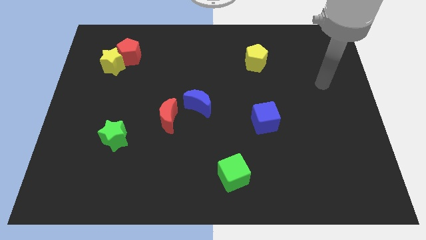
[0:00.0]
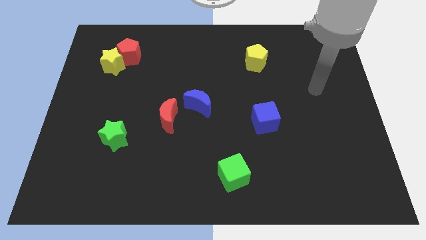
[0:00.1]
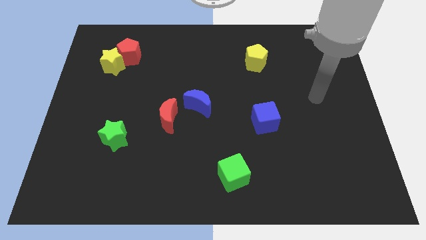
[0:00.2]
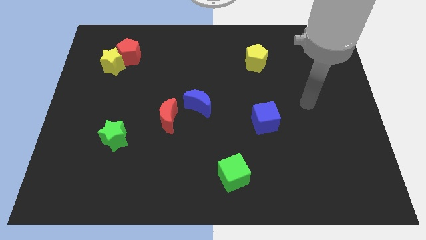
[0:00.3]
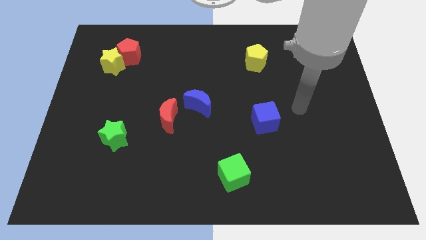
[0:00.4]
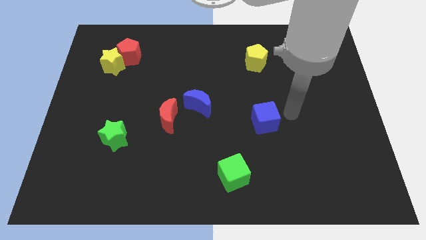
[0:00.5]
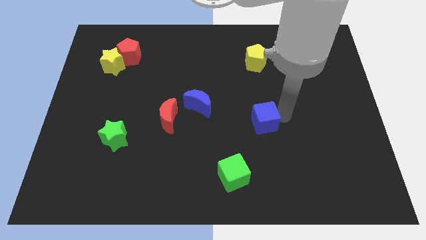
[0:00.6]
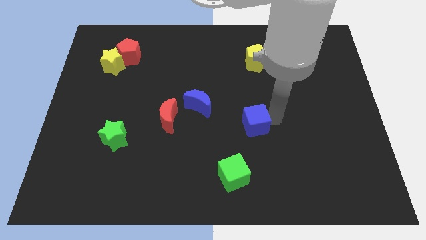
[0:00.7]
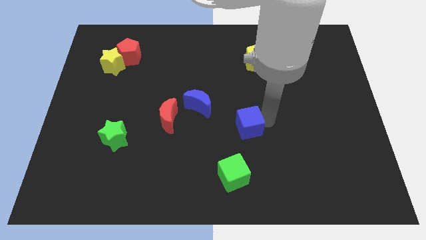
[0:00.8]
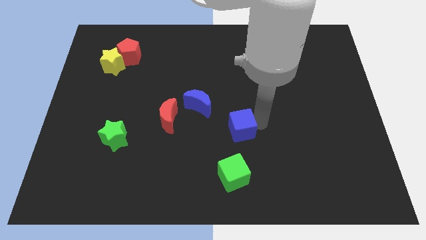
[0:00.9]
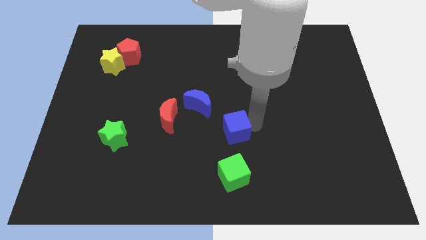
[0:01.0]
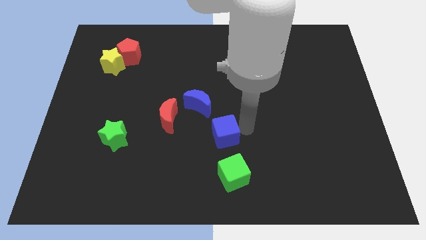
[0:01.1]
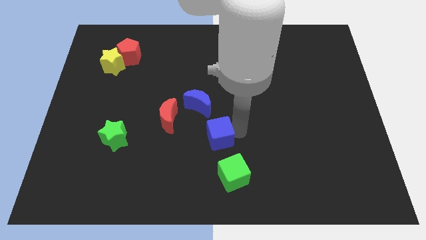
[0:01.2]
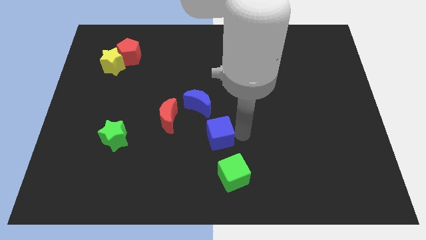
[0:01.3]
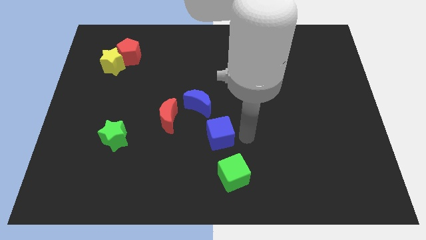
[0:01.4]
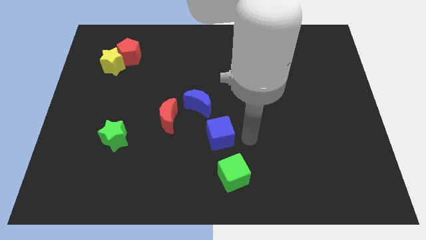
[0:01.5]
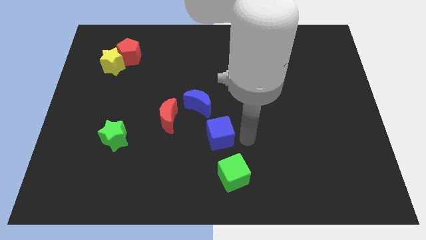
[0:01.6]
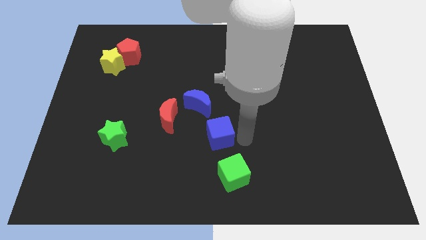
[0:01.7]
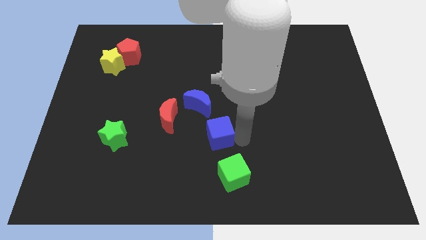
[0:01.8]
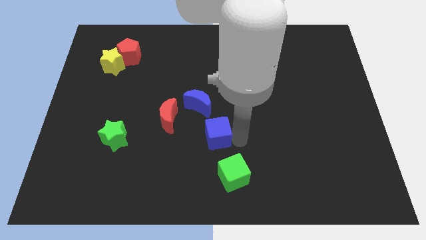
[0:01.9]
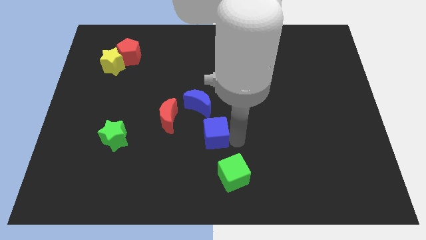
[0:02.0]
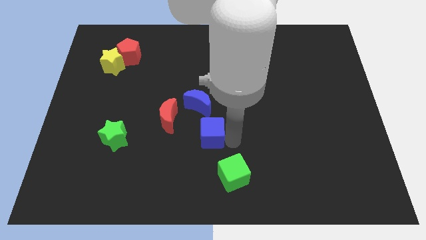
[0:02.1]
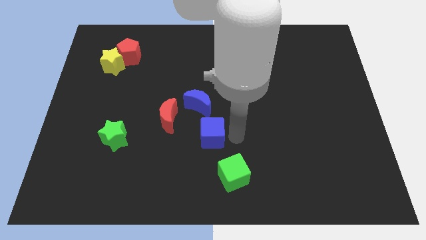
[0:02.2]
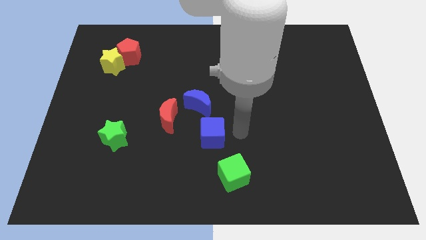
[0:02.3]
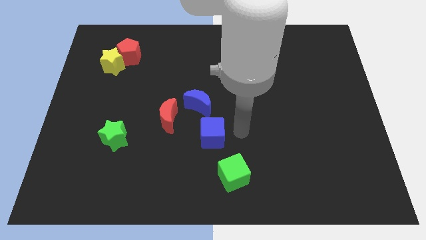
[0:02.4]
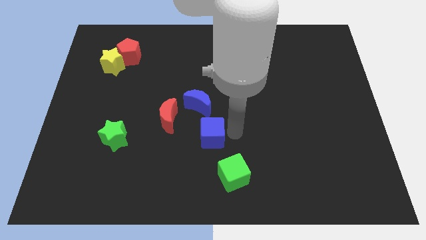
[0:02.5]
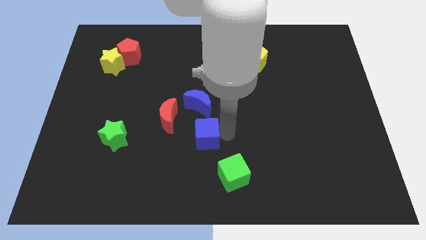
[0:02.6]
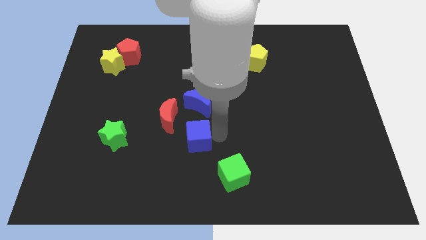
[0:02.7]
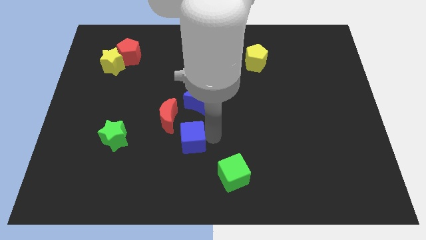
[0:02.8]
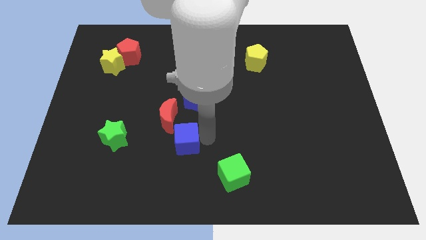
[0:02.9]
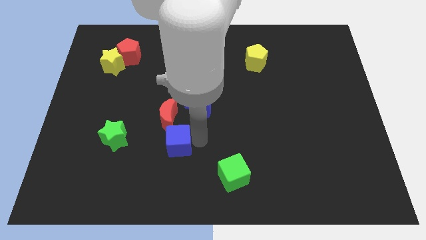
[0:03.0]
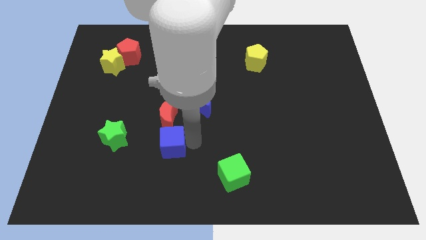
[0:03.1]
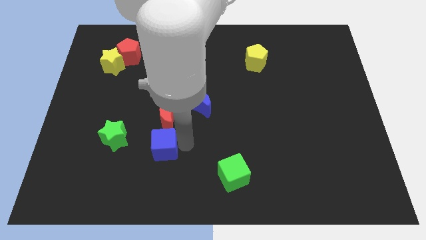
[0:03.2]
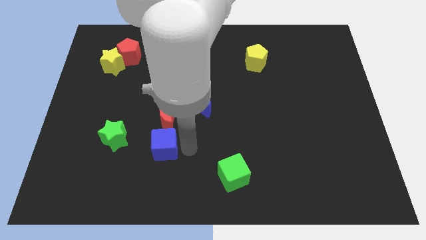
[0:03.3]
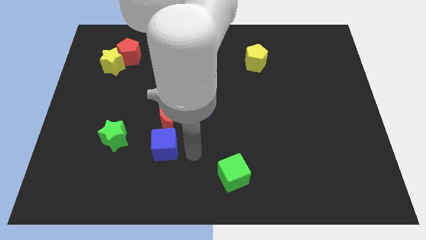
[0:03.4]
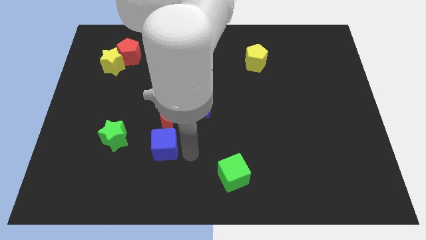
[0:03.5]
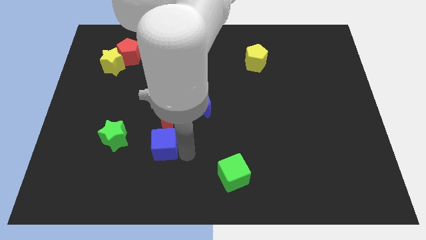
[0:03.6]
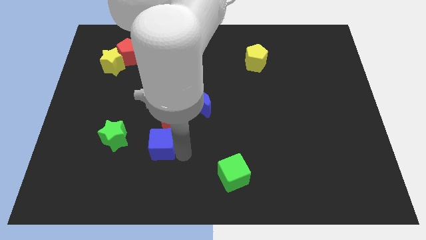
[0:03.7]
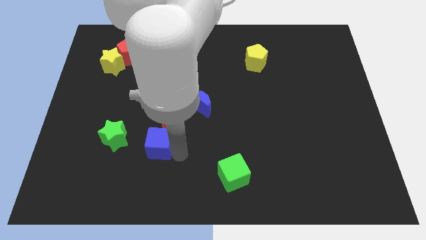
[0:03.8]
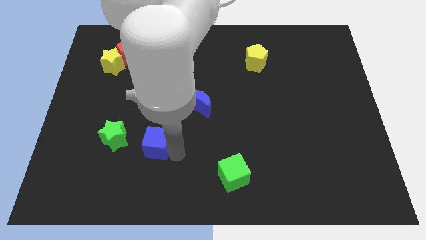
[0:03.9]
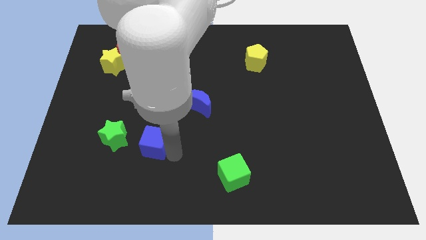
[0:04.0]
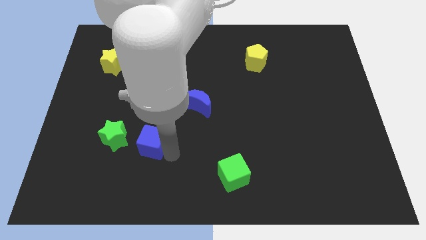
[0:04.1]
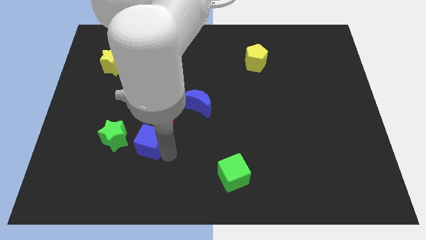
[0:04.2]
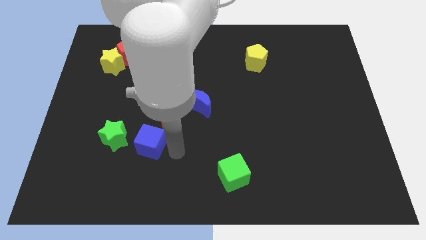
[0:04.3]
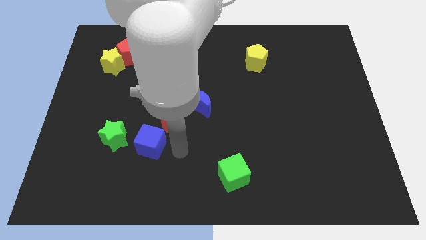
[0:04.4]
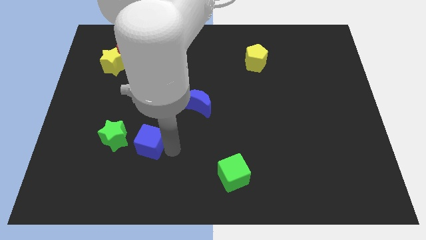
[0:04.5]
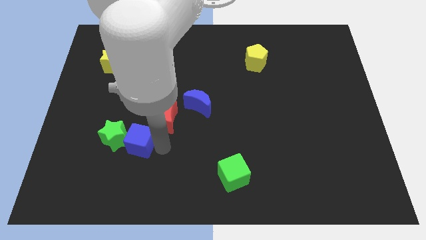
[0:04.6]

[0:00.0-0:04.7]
put the blue cube to the green star

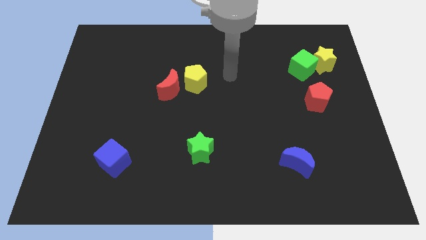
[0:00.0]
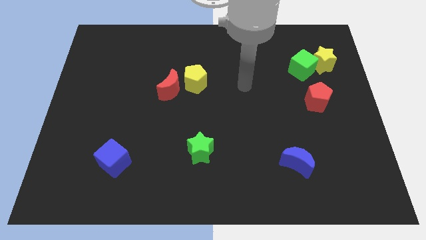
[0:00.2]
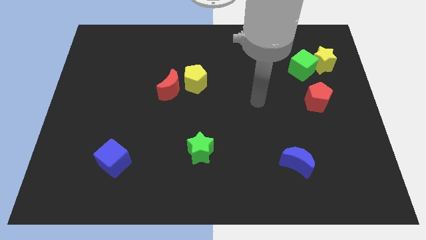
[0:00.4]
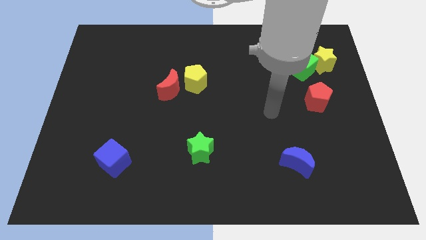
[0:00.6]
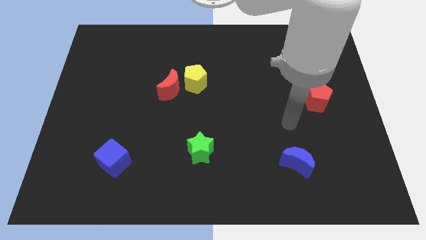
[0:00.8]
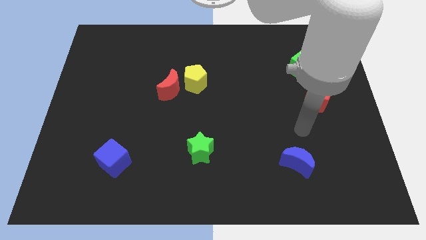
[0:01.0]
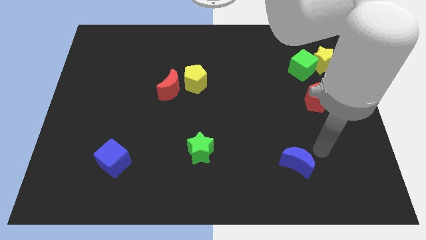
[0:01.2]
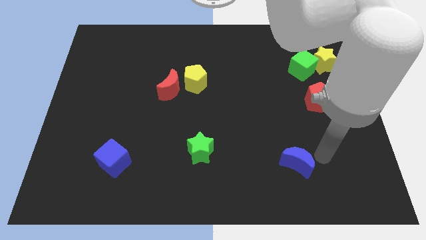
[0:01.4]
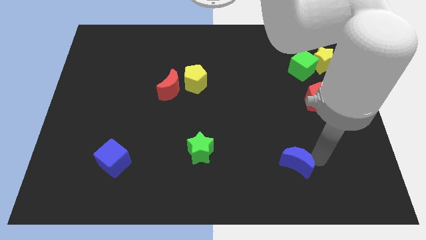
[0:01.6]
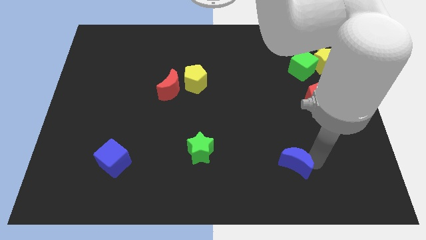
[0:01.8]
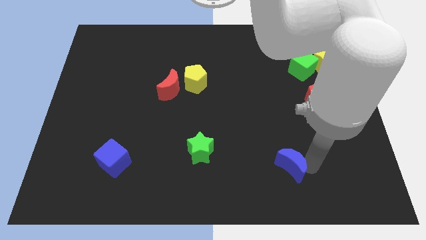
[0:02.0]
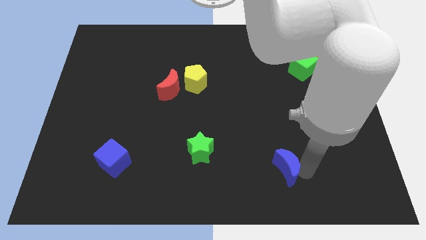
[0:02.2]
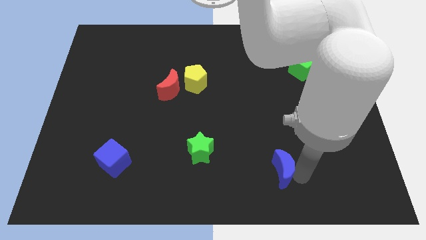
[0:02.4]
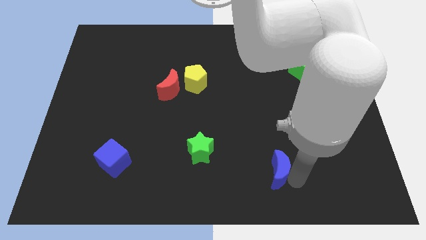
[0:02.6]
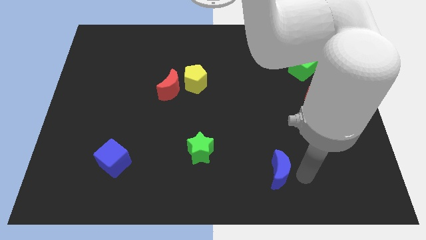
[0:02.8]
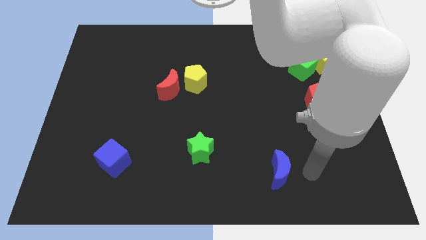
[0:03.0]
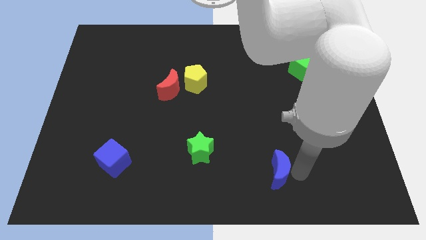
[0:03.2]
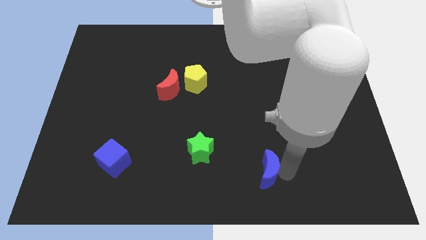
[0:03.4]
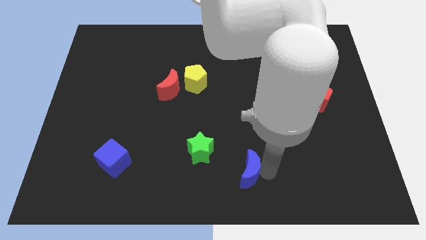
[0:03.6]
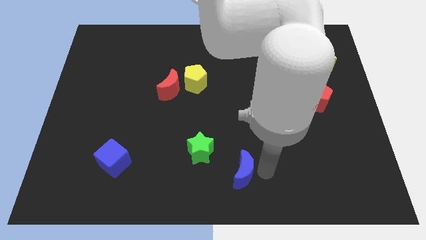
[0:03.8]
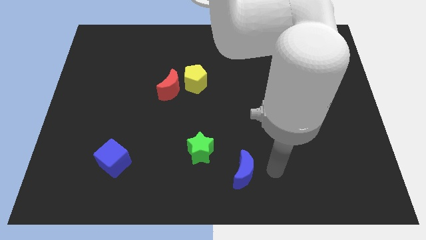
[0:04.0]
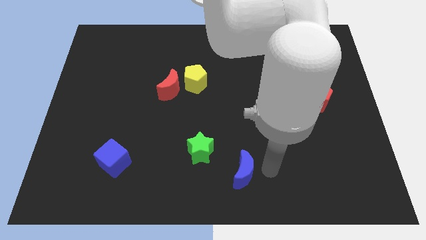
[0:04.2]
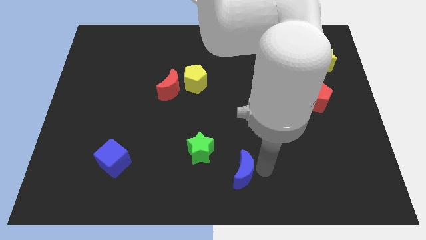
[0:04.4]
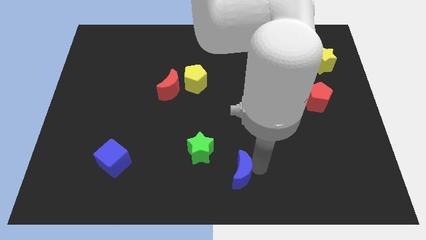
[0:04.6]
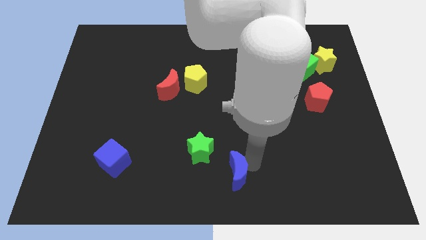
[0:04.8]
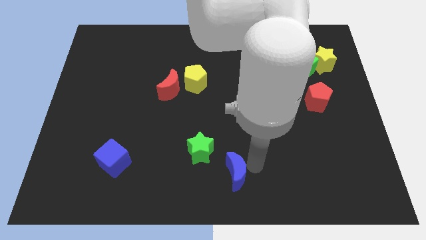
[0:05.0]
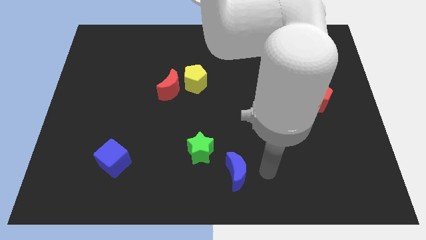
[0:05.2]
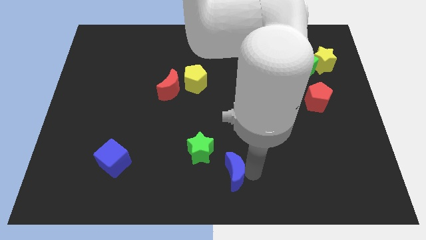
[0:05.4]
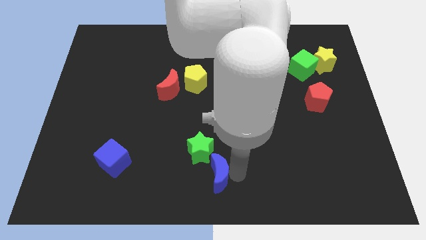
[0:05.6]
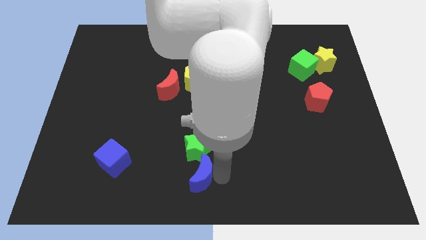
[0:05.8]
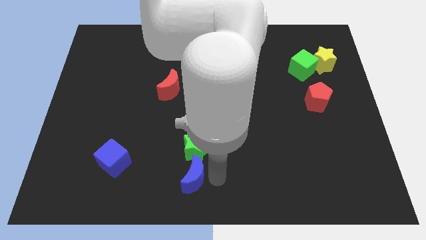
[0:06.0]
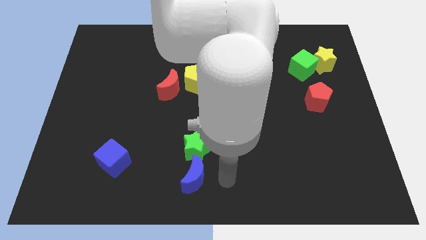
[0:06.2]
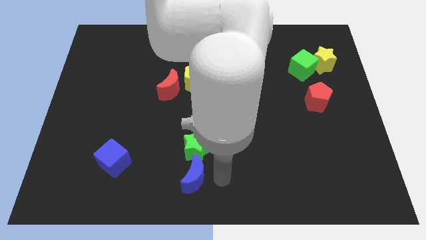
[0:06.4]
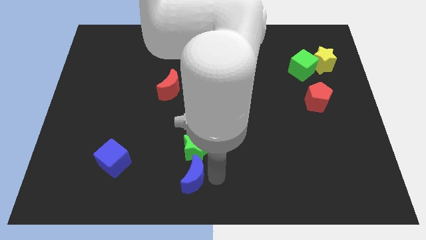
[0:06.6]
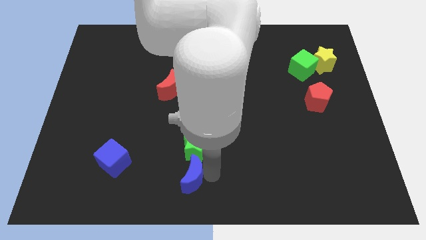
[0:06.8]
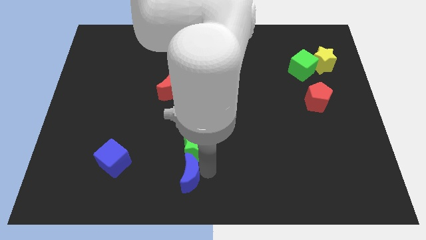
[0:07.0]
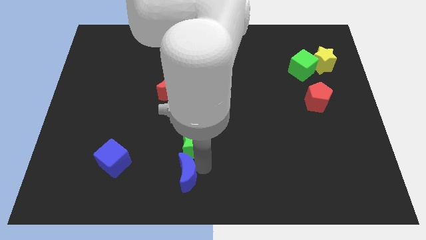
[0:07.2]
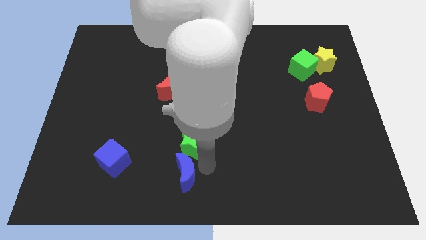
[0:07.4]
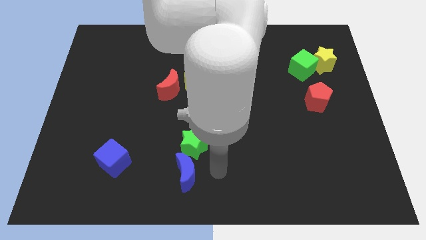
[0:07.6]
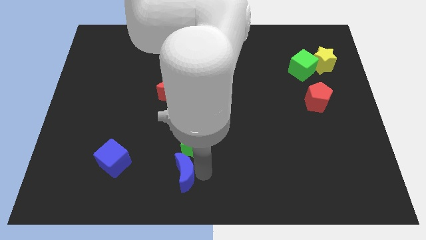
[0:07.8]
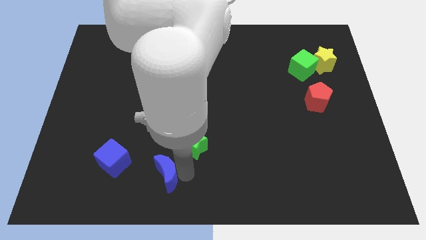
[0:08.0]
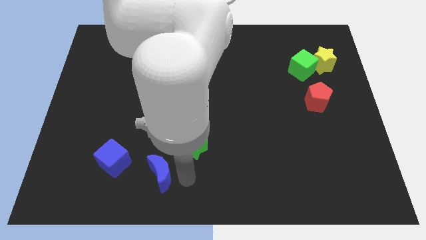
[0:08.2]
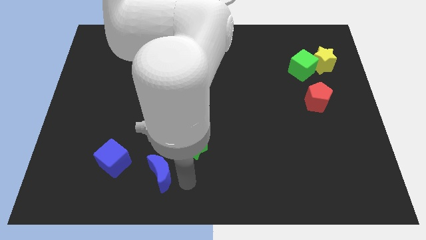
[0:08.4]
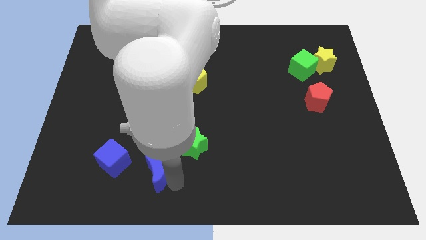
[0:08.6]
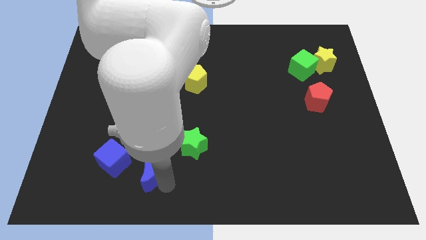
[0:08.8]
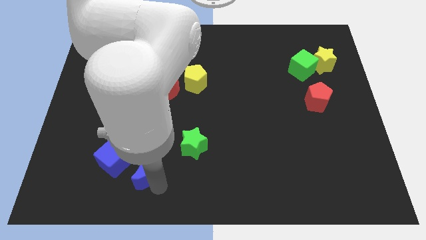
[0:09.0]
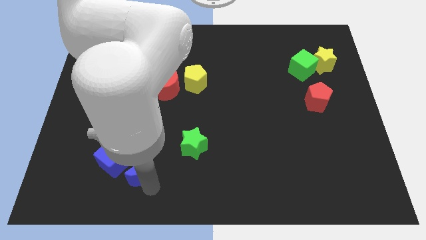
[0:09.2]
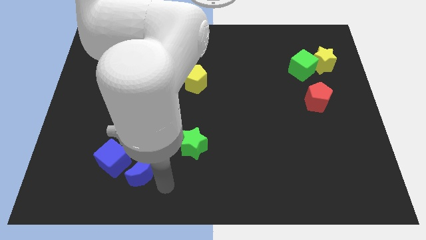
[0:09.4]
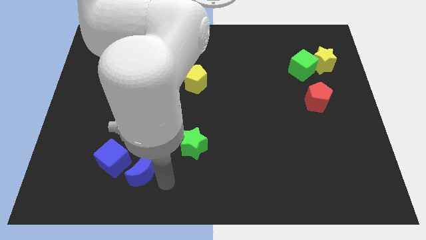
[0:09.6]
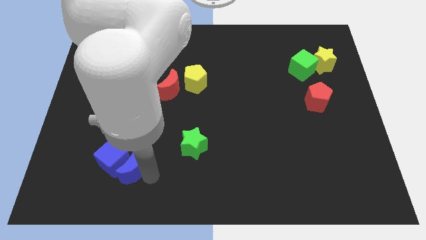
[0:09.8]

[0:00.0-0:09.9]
move the blue moon next to the blue cube
